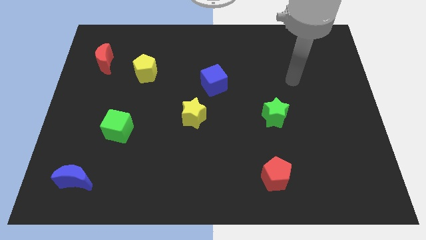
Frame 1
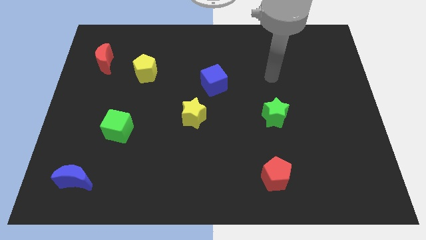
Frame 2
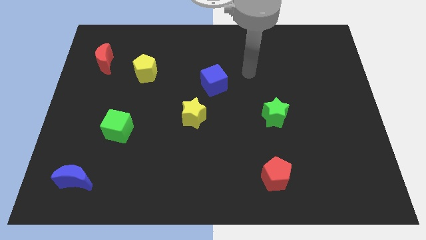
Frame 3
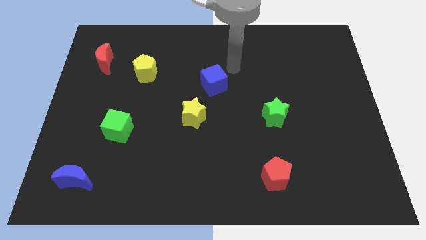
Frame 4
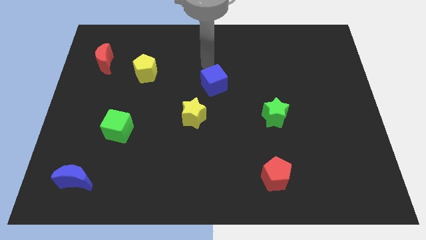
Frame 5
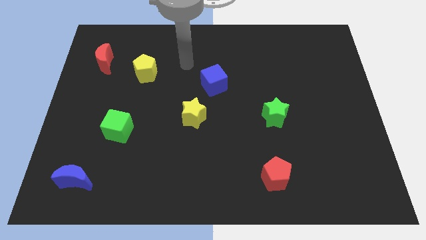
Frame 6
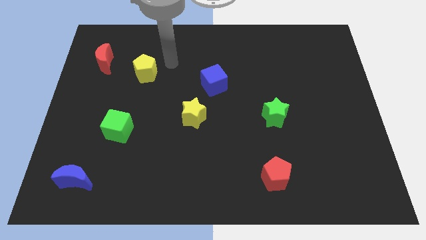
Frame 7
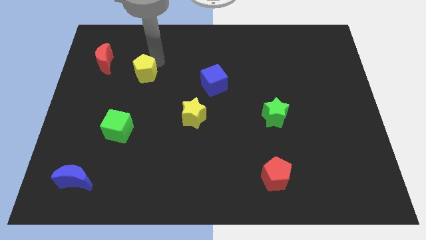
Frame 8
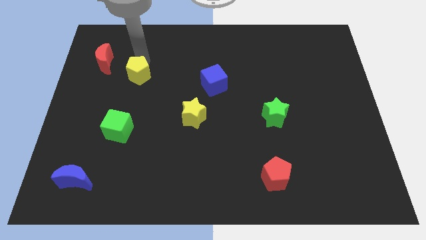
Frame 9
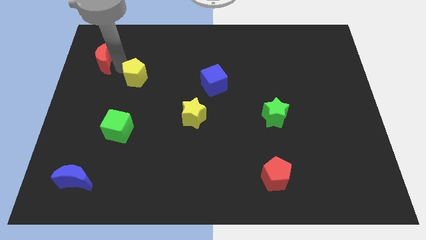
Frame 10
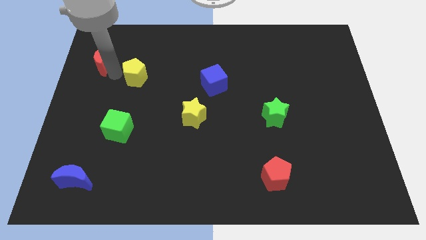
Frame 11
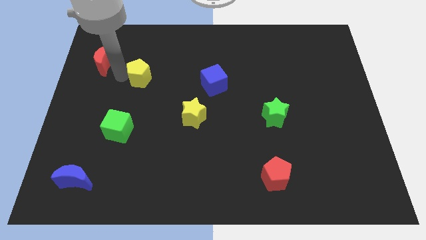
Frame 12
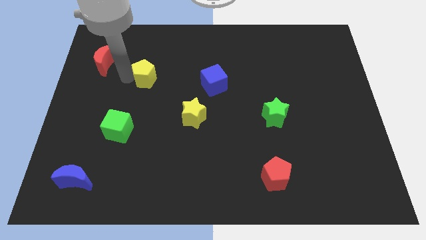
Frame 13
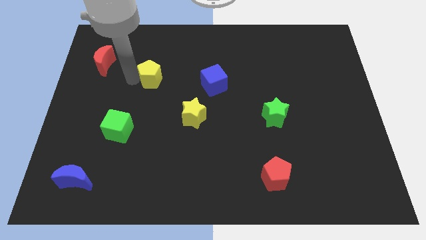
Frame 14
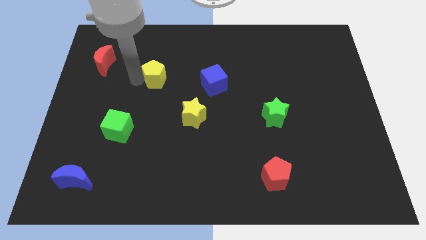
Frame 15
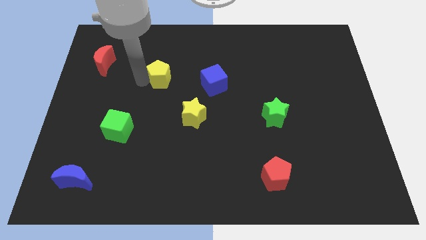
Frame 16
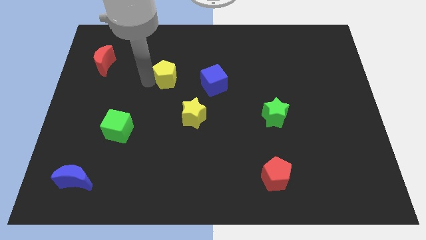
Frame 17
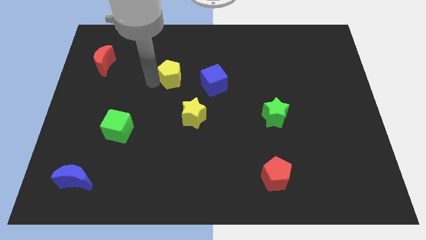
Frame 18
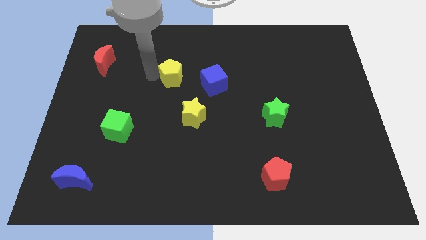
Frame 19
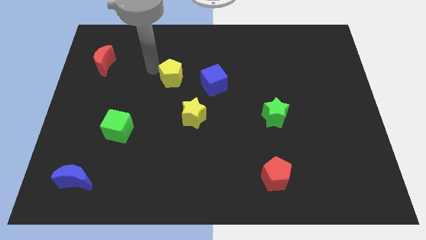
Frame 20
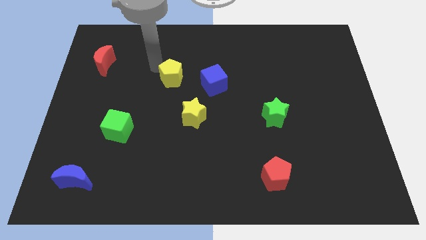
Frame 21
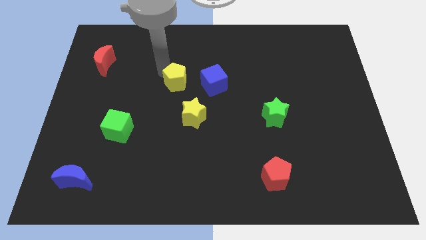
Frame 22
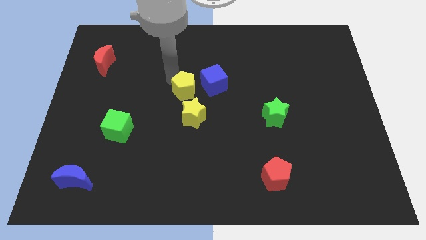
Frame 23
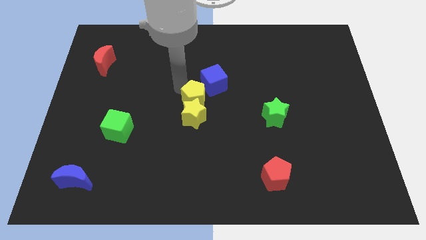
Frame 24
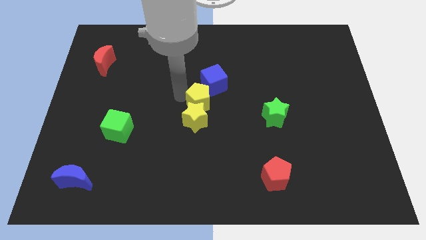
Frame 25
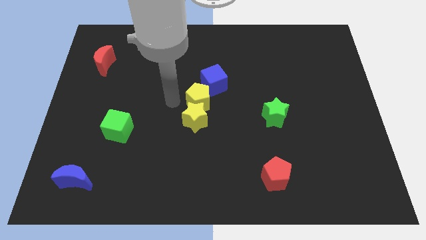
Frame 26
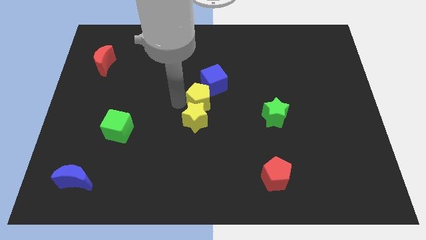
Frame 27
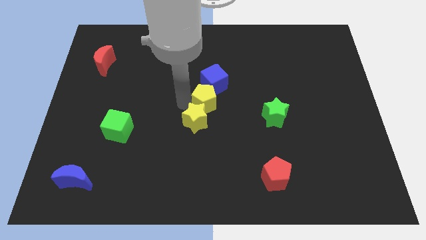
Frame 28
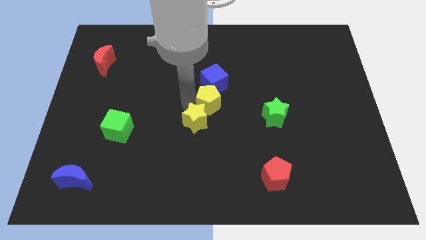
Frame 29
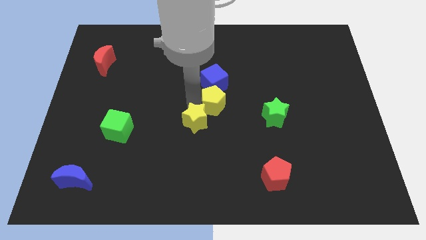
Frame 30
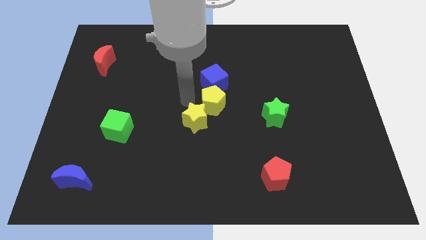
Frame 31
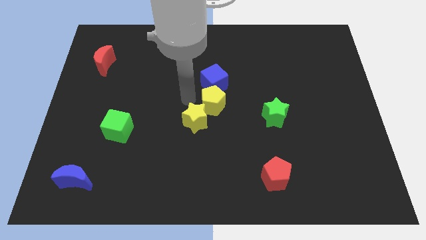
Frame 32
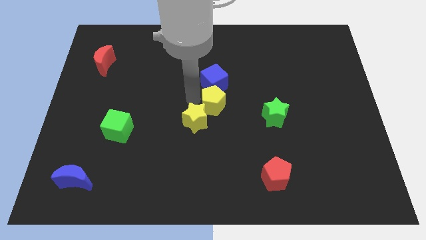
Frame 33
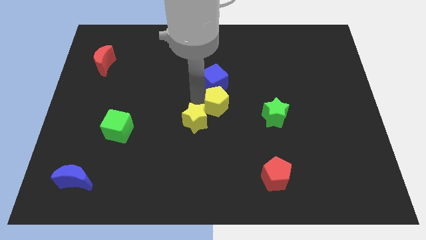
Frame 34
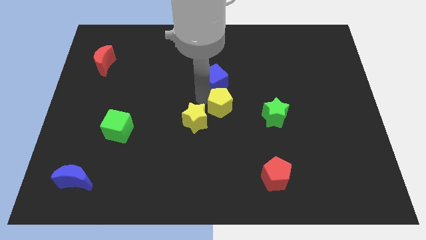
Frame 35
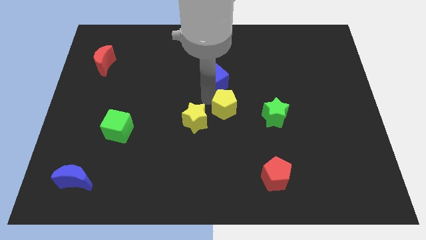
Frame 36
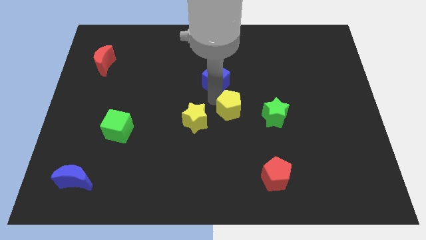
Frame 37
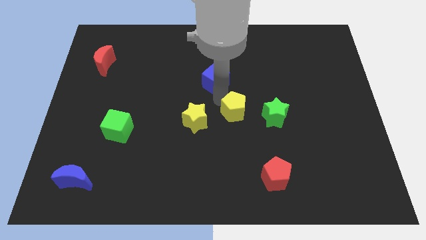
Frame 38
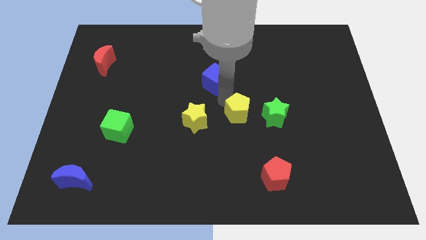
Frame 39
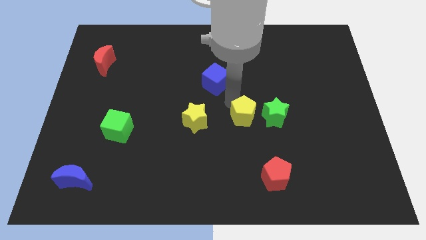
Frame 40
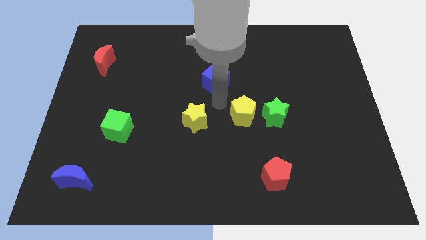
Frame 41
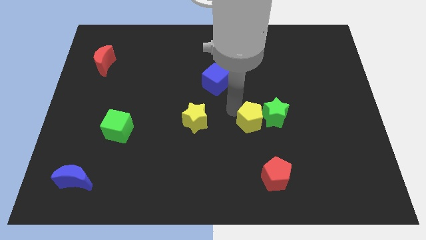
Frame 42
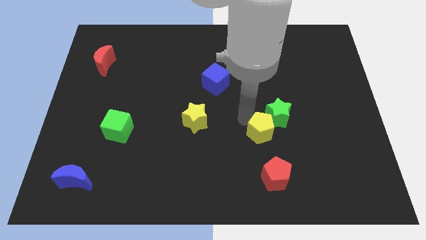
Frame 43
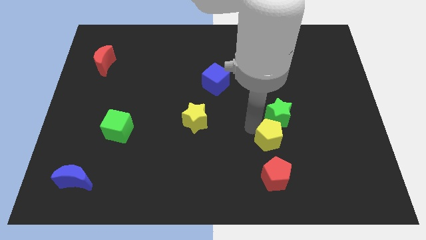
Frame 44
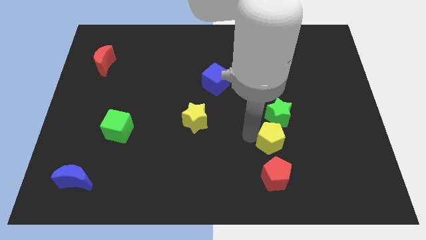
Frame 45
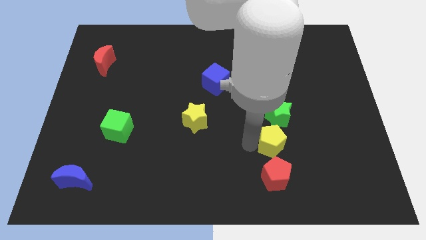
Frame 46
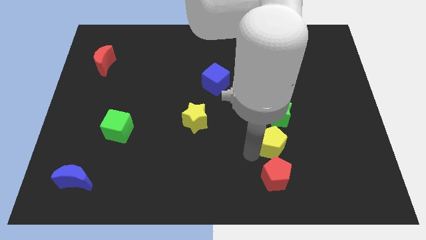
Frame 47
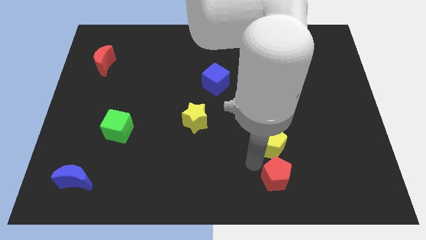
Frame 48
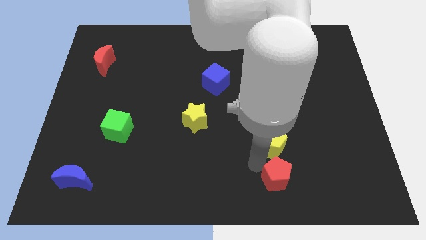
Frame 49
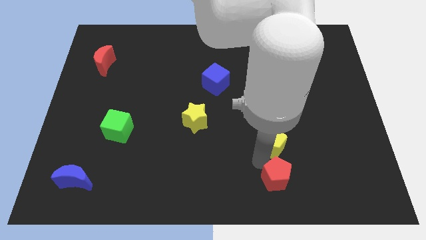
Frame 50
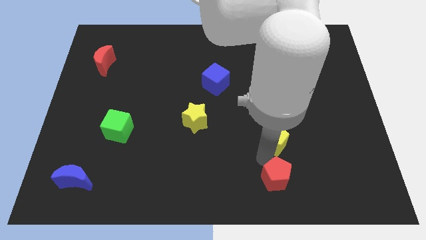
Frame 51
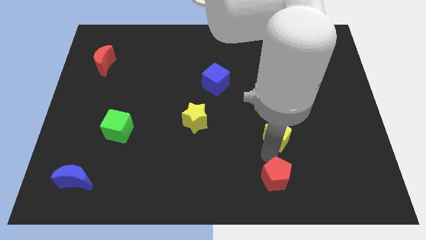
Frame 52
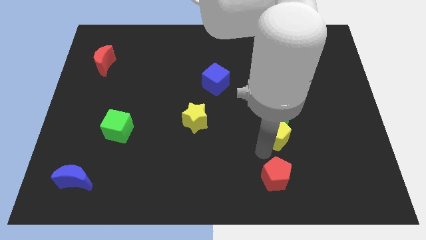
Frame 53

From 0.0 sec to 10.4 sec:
push the yellow pentagon diagonally down and to the right of the green star

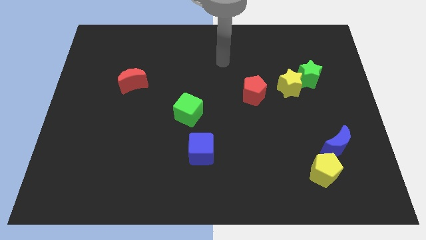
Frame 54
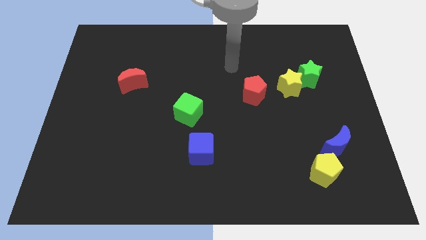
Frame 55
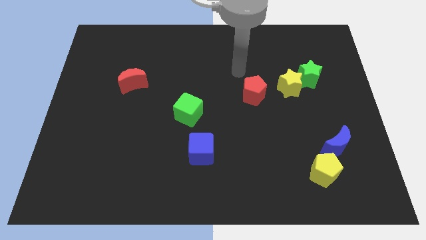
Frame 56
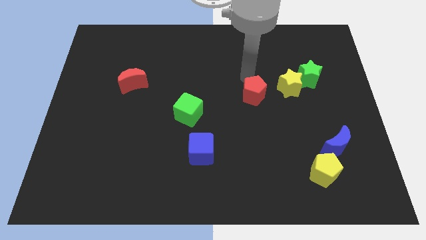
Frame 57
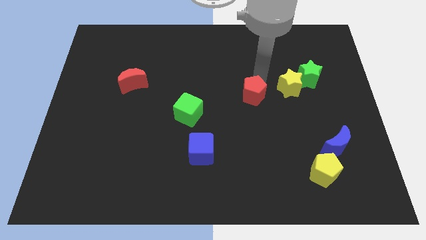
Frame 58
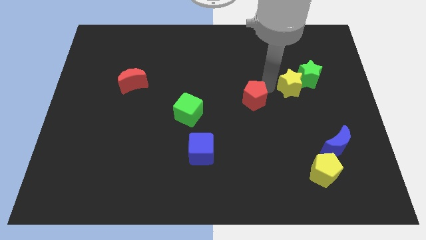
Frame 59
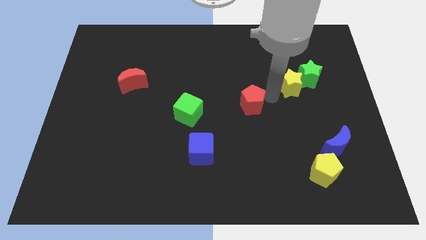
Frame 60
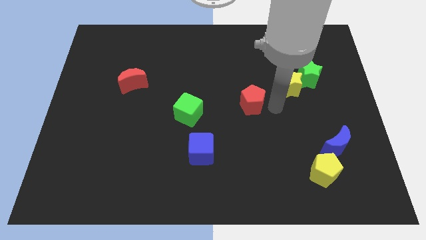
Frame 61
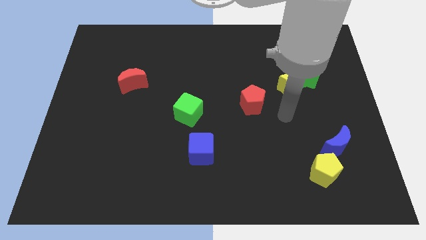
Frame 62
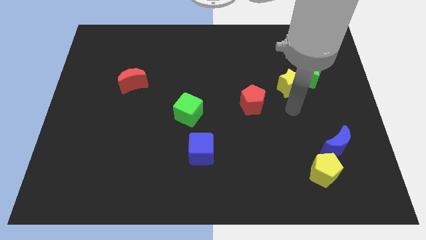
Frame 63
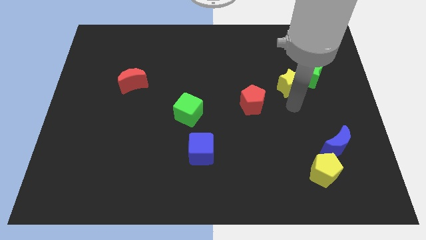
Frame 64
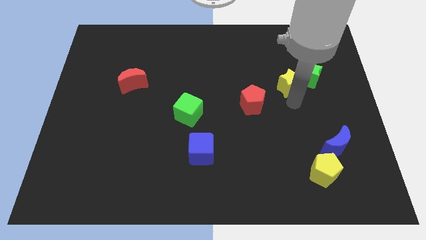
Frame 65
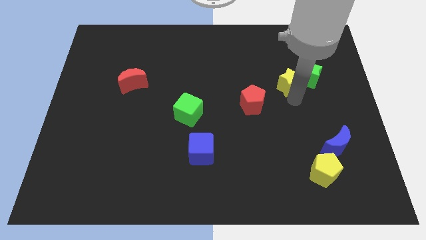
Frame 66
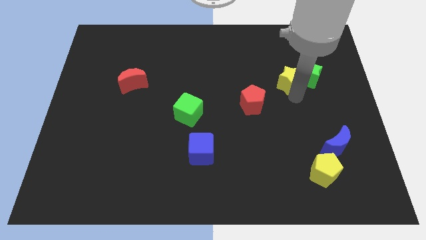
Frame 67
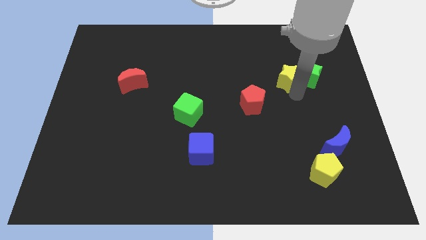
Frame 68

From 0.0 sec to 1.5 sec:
move the yellow star to the top left of the green star
